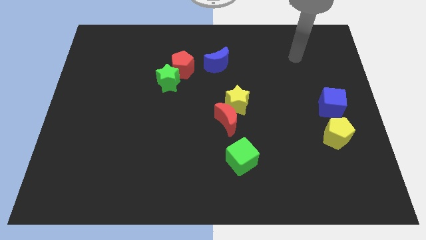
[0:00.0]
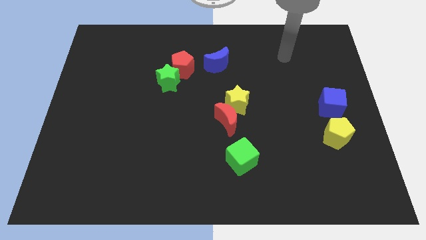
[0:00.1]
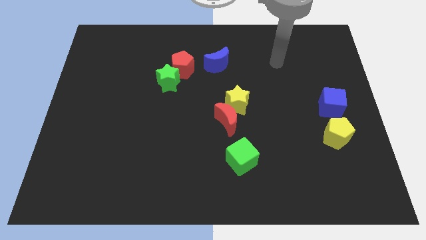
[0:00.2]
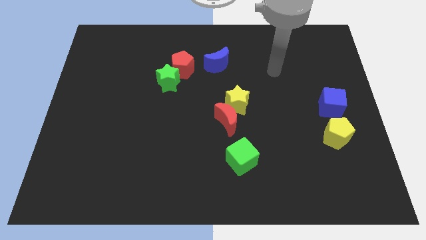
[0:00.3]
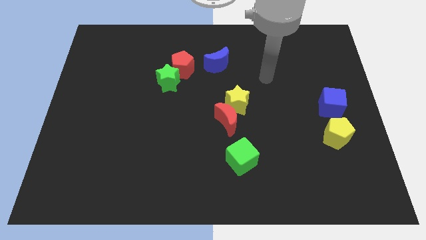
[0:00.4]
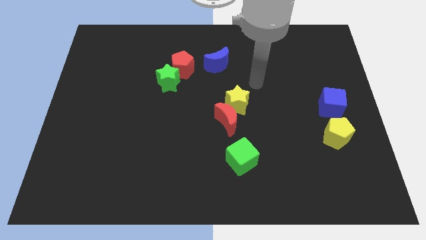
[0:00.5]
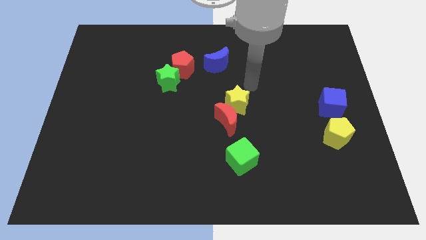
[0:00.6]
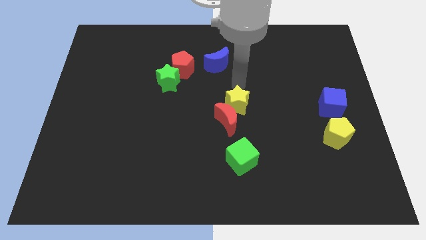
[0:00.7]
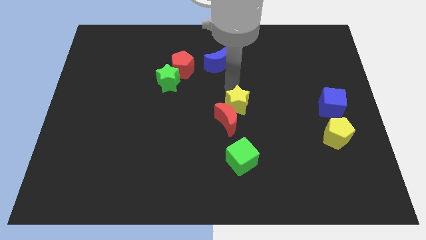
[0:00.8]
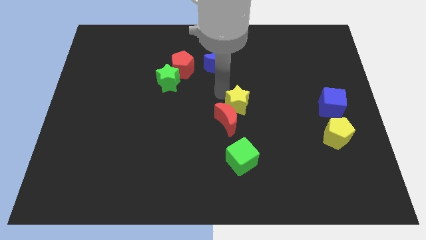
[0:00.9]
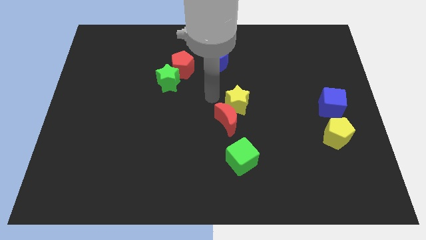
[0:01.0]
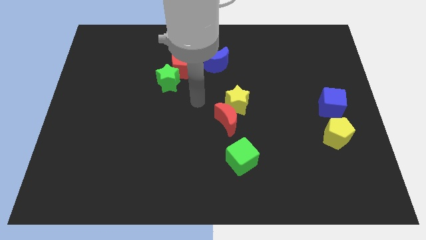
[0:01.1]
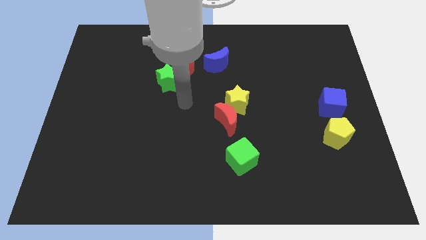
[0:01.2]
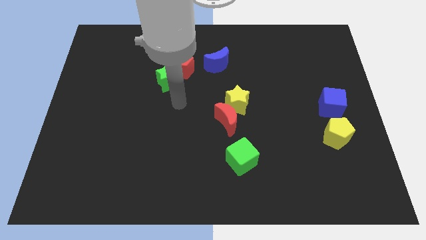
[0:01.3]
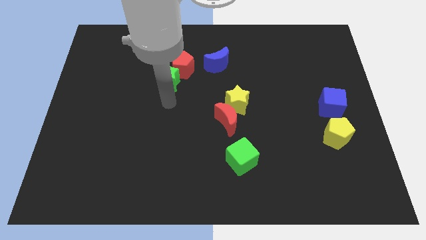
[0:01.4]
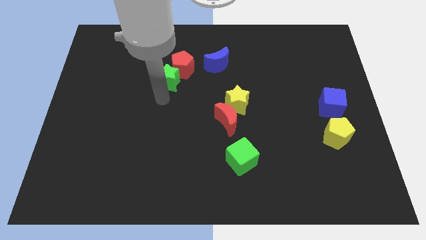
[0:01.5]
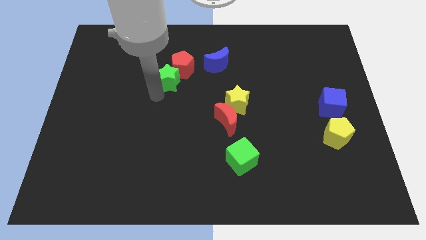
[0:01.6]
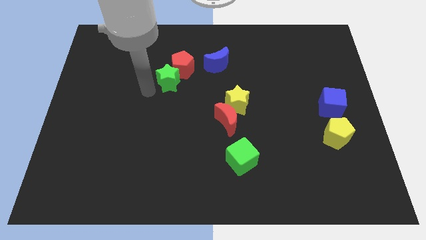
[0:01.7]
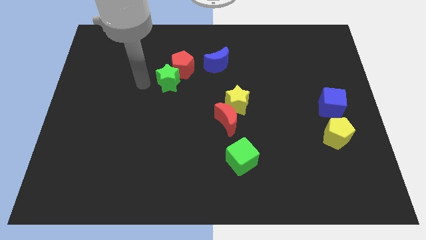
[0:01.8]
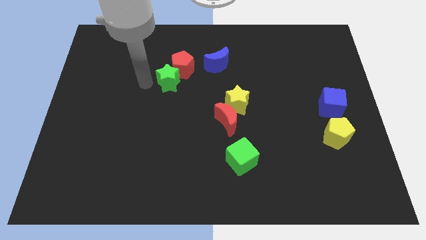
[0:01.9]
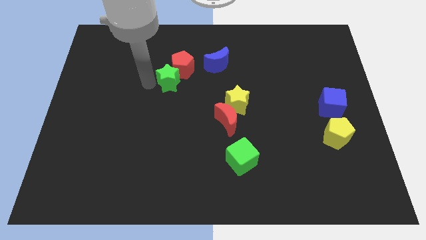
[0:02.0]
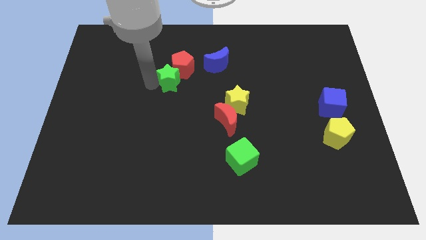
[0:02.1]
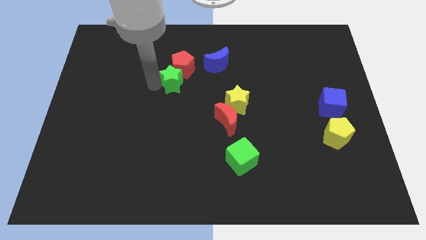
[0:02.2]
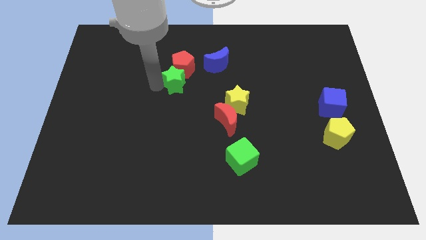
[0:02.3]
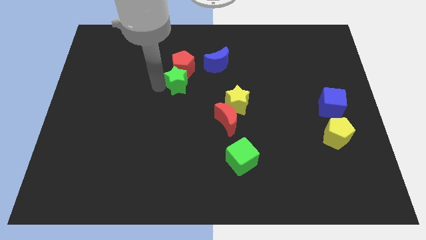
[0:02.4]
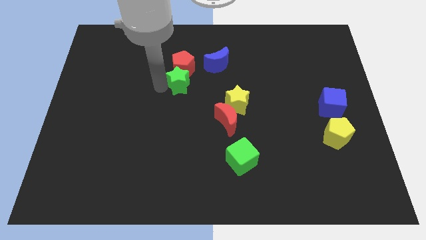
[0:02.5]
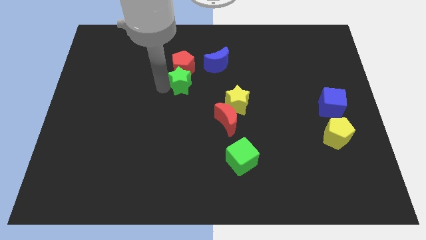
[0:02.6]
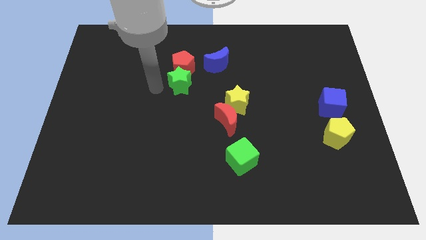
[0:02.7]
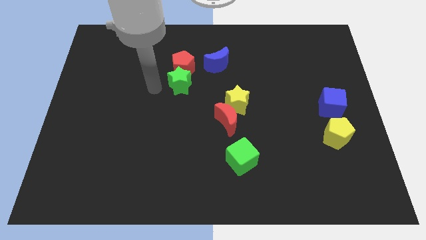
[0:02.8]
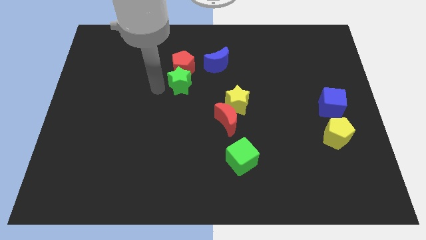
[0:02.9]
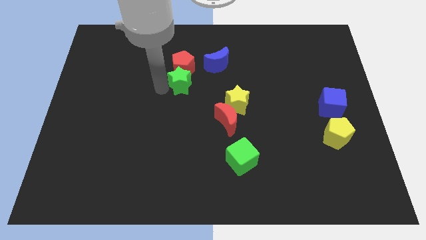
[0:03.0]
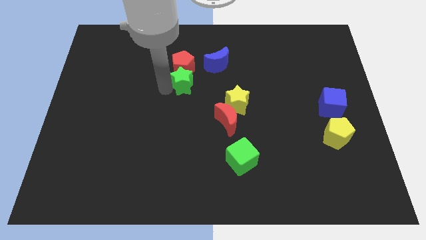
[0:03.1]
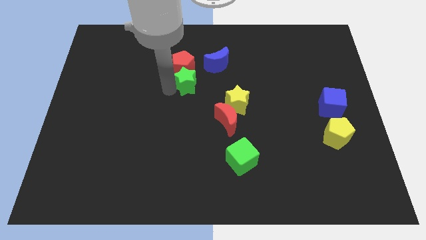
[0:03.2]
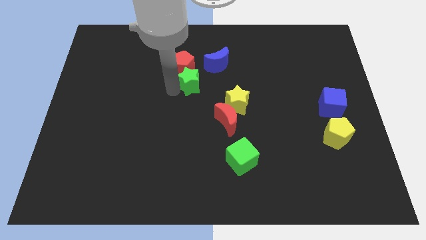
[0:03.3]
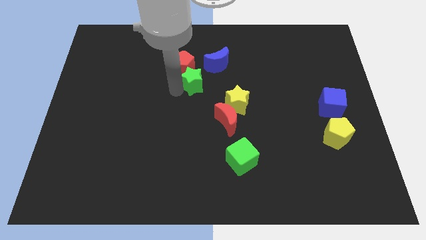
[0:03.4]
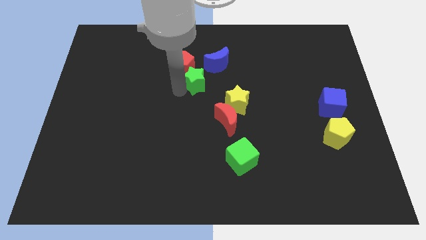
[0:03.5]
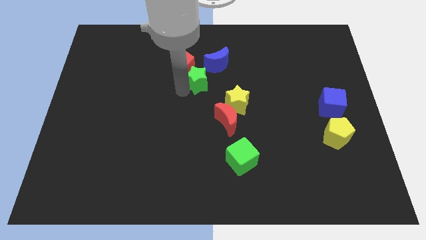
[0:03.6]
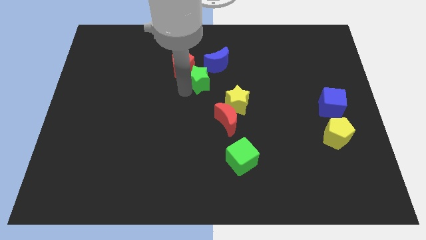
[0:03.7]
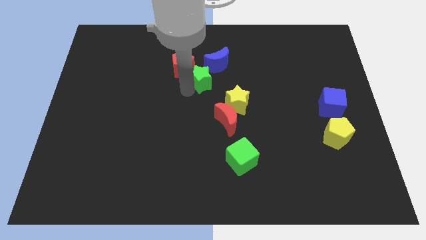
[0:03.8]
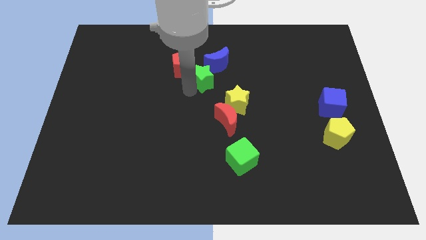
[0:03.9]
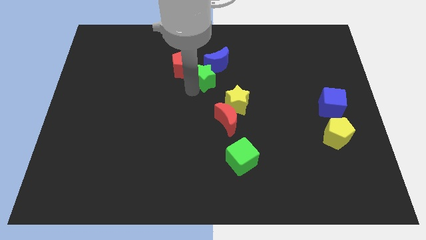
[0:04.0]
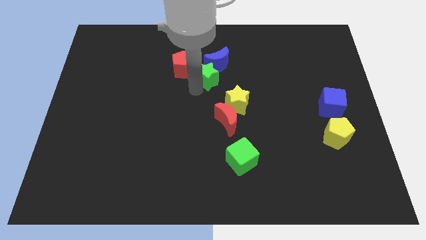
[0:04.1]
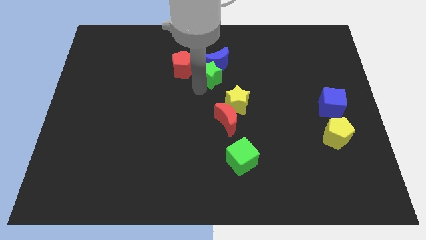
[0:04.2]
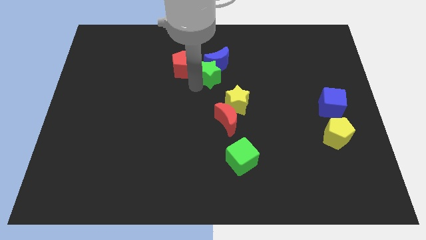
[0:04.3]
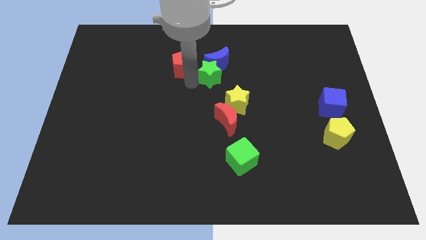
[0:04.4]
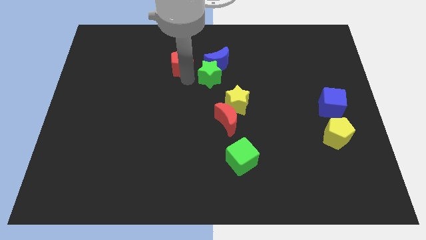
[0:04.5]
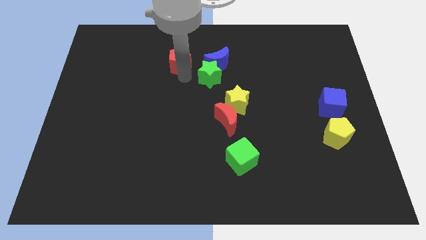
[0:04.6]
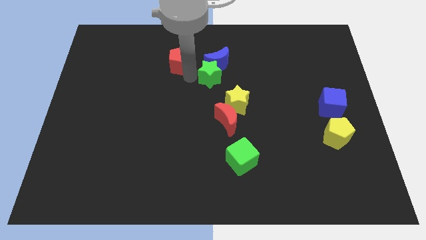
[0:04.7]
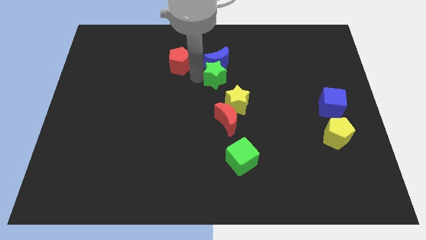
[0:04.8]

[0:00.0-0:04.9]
move the green star diagonally down and to the right of the blue moon

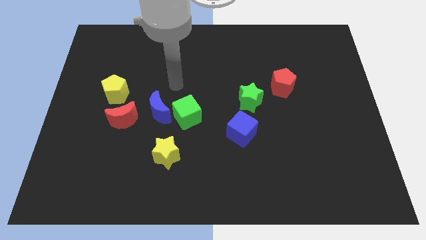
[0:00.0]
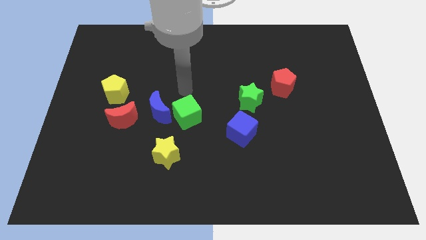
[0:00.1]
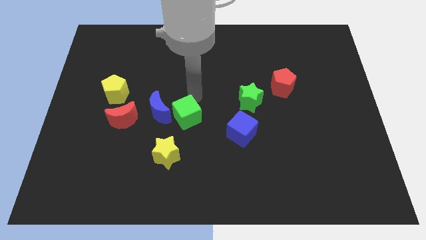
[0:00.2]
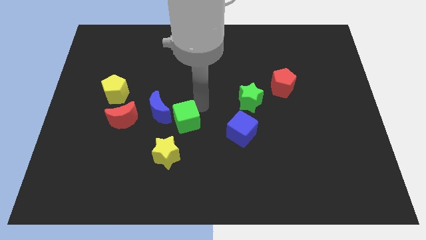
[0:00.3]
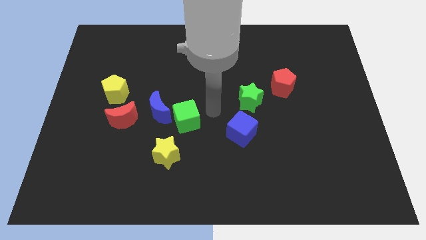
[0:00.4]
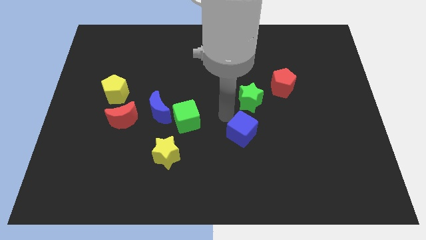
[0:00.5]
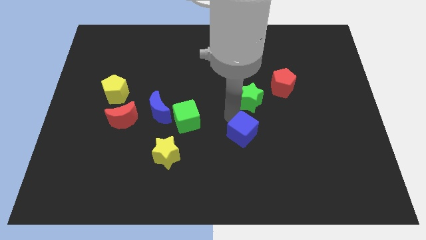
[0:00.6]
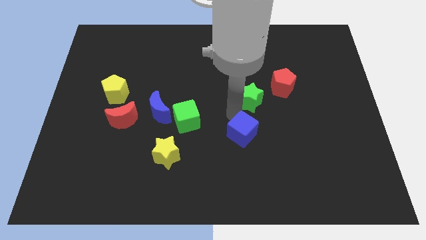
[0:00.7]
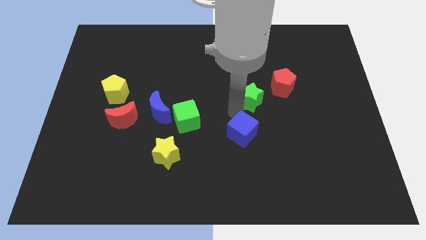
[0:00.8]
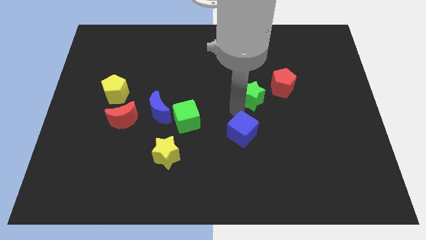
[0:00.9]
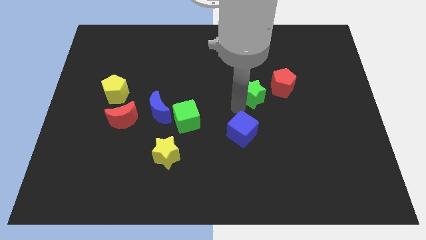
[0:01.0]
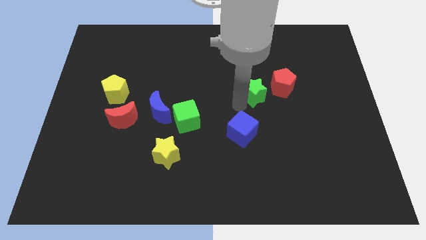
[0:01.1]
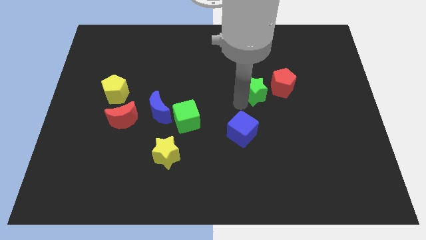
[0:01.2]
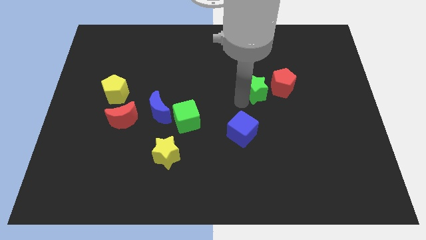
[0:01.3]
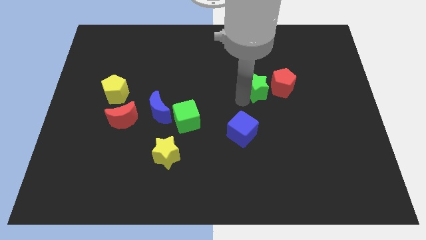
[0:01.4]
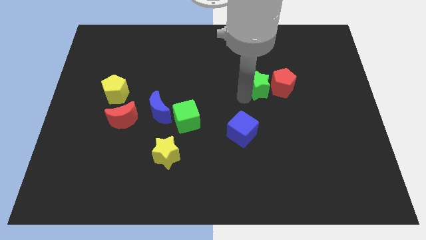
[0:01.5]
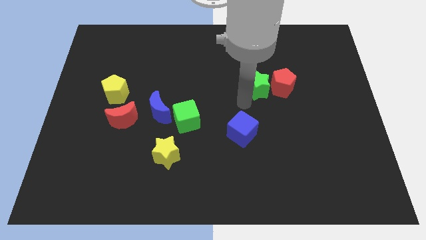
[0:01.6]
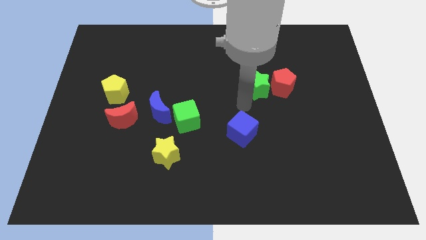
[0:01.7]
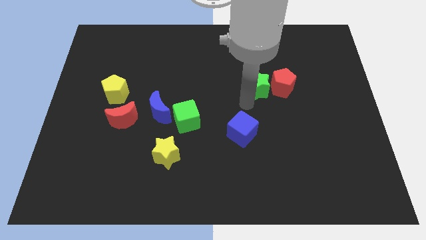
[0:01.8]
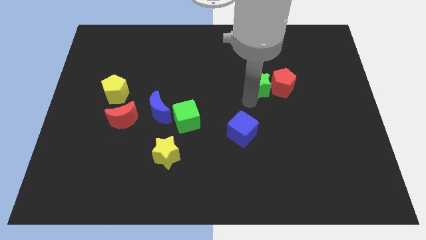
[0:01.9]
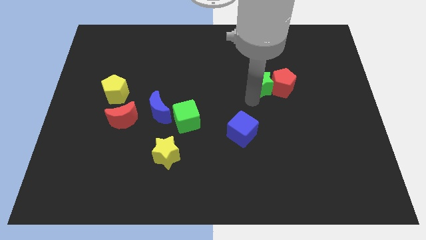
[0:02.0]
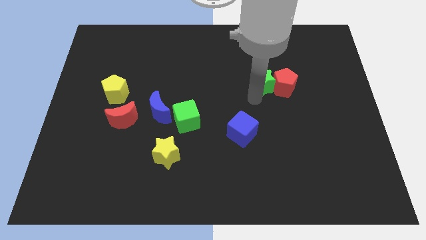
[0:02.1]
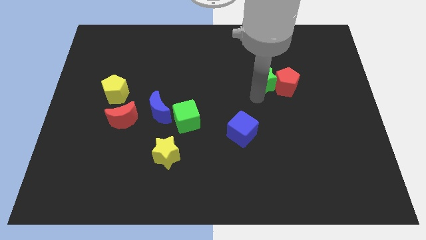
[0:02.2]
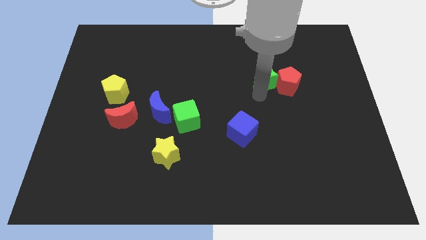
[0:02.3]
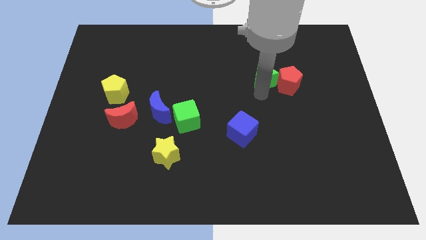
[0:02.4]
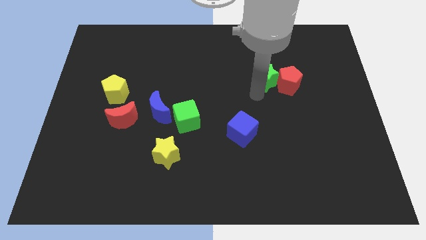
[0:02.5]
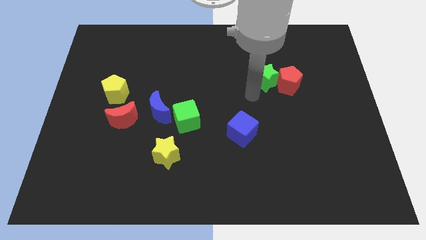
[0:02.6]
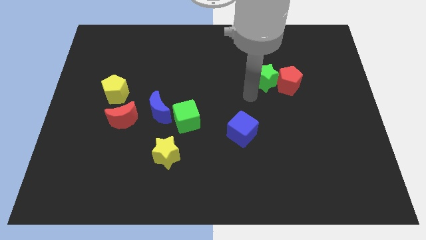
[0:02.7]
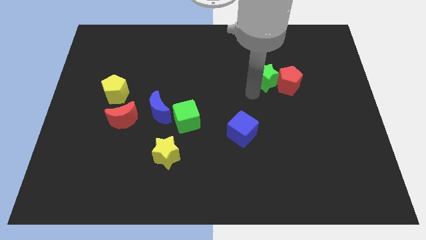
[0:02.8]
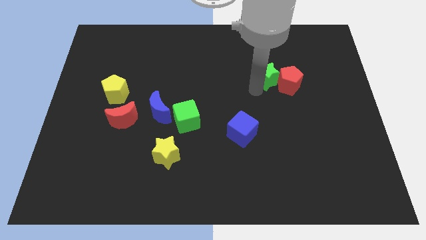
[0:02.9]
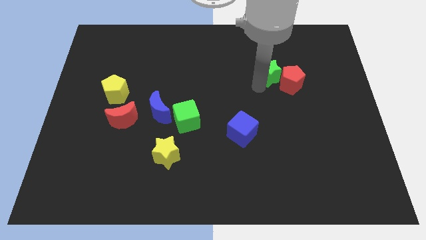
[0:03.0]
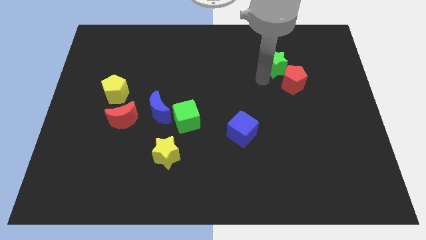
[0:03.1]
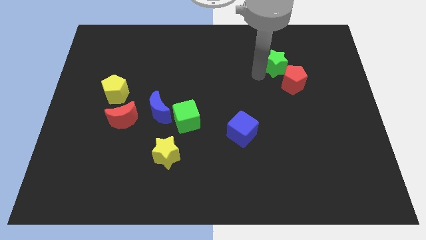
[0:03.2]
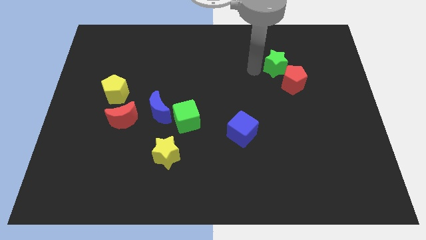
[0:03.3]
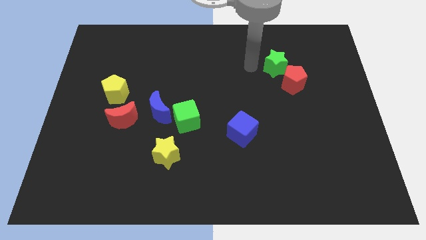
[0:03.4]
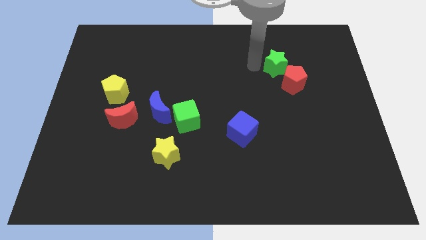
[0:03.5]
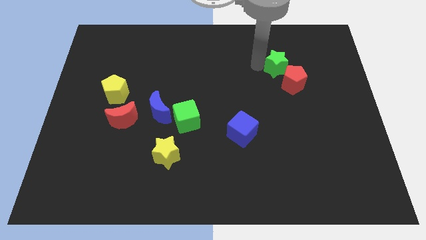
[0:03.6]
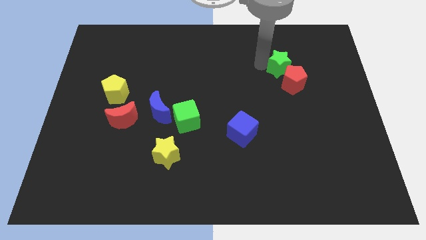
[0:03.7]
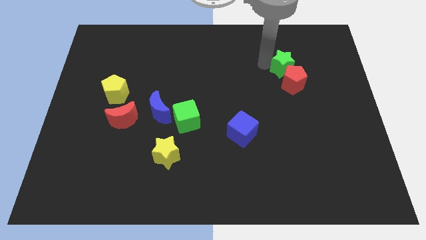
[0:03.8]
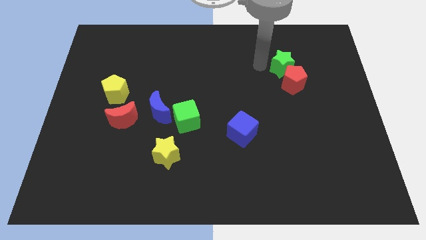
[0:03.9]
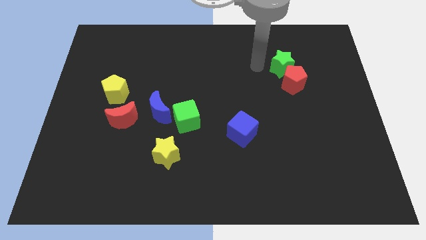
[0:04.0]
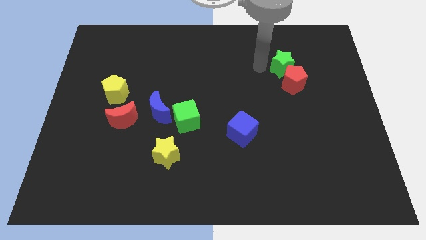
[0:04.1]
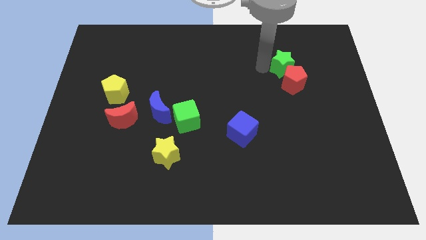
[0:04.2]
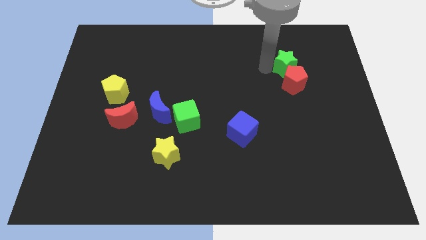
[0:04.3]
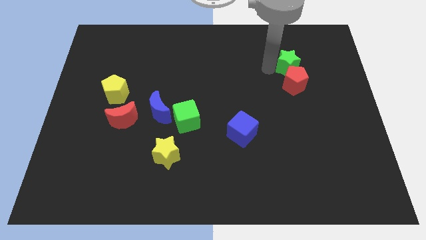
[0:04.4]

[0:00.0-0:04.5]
put the green star to the top right side of the red pentagon
